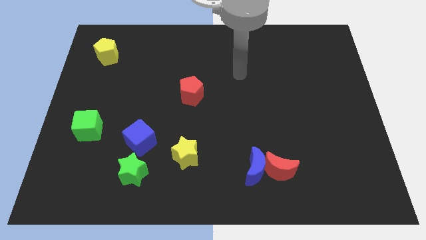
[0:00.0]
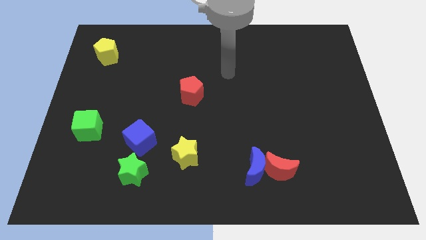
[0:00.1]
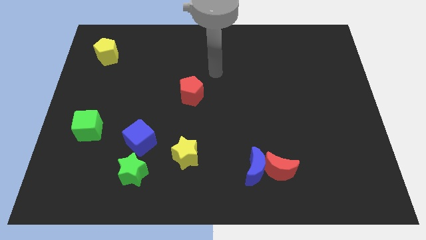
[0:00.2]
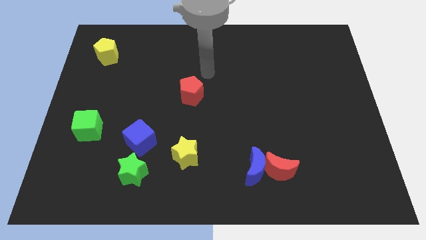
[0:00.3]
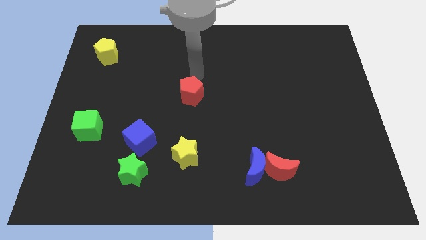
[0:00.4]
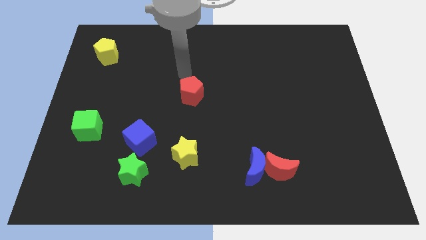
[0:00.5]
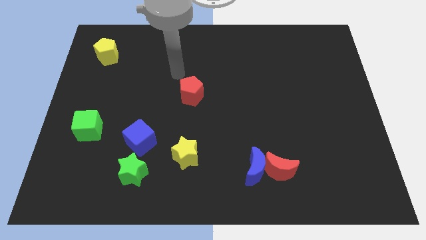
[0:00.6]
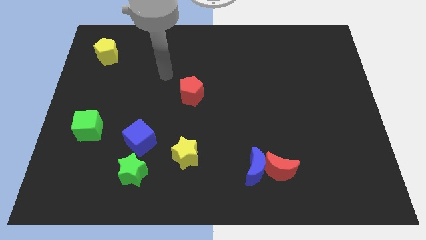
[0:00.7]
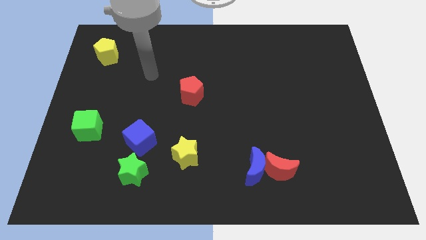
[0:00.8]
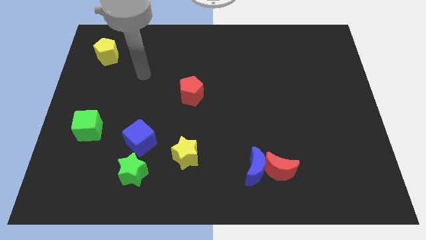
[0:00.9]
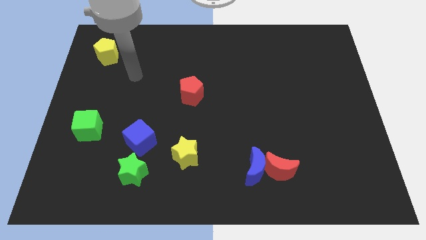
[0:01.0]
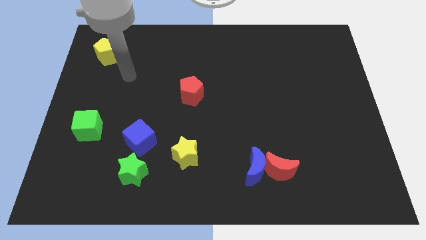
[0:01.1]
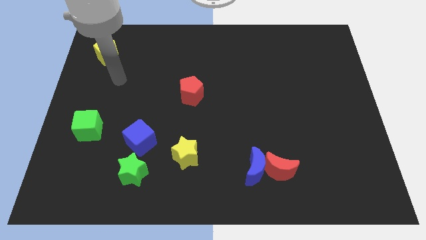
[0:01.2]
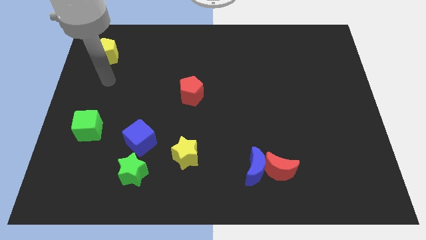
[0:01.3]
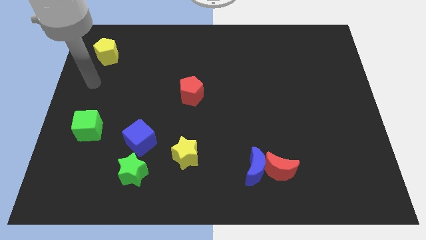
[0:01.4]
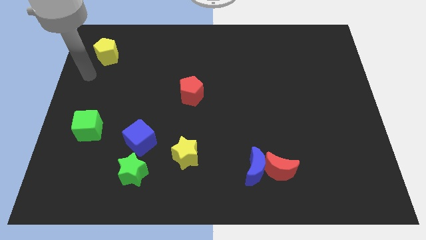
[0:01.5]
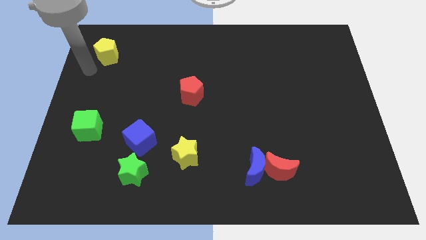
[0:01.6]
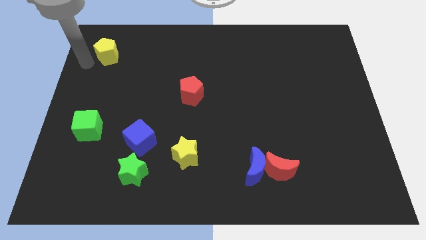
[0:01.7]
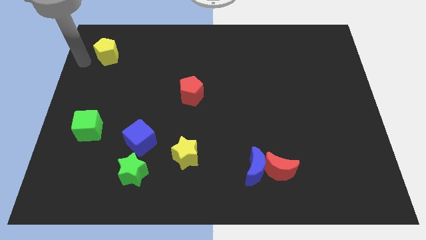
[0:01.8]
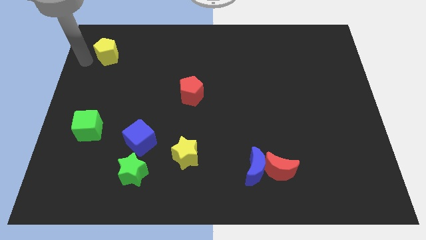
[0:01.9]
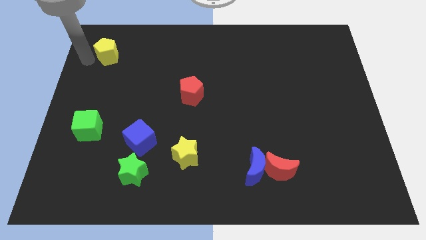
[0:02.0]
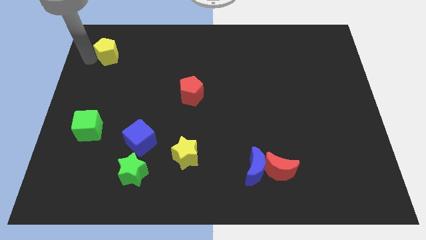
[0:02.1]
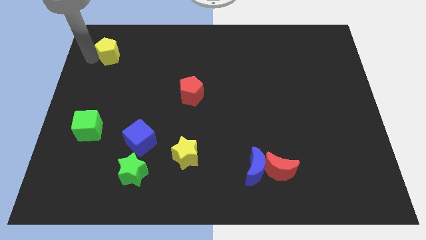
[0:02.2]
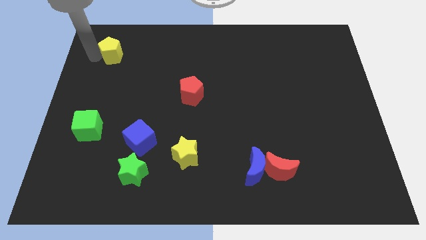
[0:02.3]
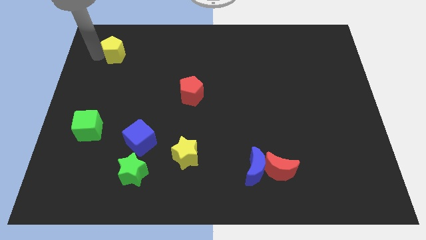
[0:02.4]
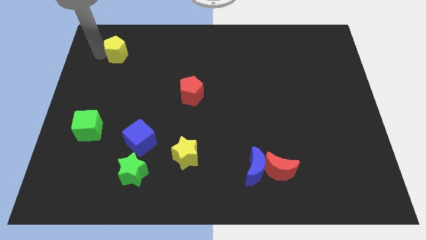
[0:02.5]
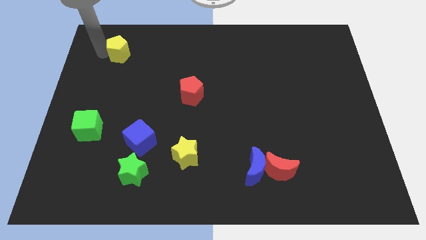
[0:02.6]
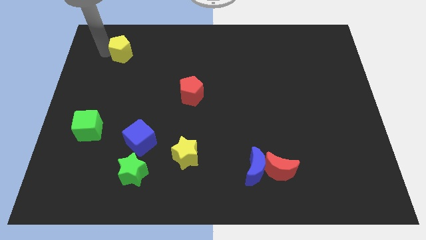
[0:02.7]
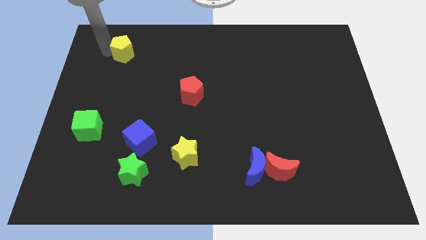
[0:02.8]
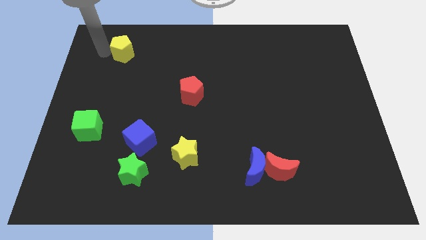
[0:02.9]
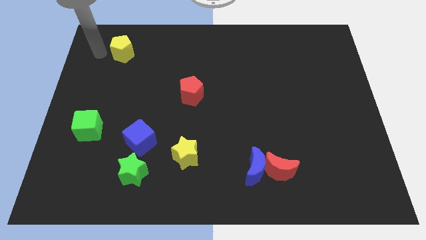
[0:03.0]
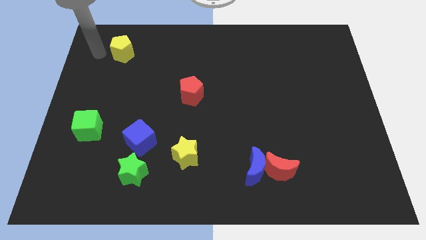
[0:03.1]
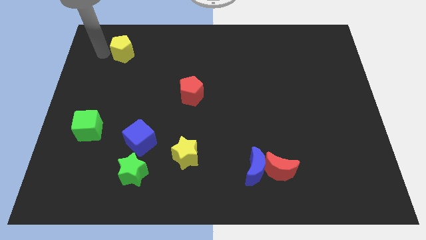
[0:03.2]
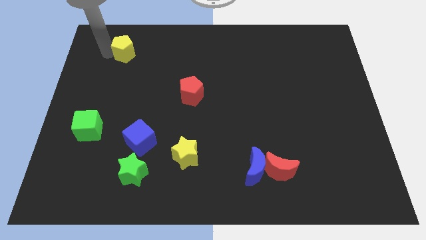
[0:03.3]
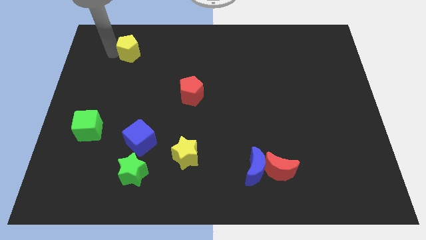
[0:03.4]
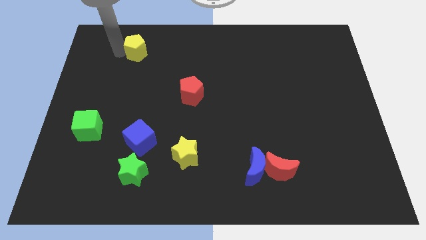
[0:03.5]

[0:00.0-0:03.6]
move the yellow pentagon slightly to the right

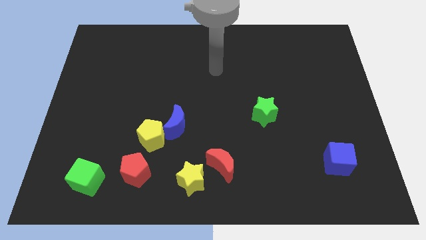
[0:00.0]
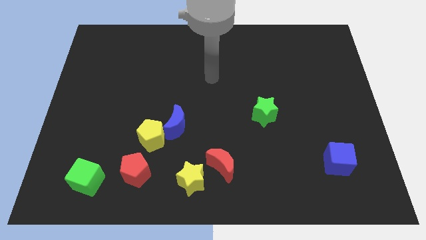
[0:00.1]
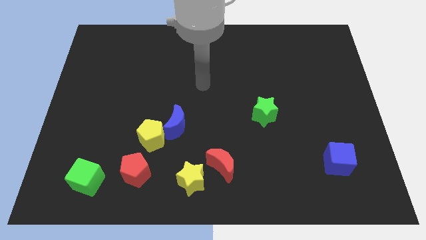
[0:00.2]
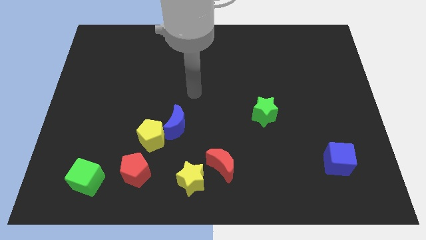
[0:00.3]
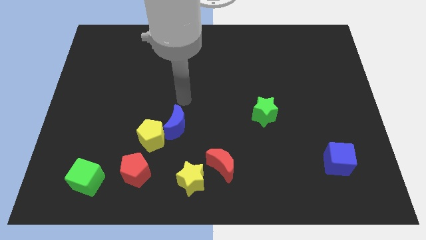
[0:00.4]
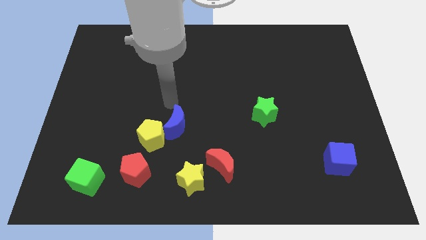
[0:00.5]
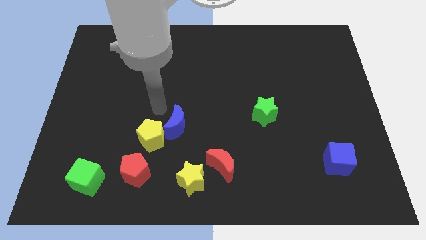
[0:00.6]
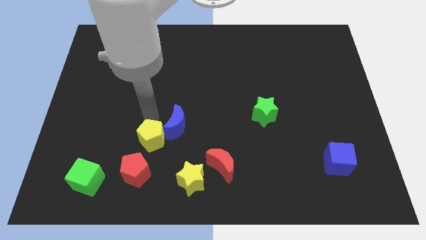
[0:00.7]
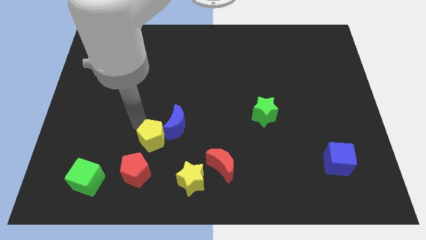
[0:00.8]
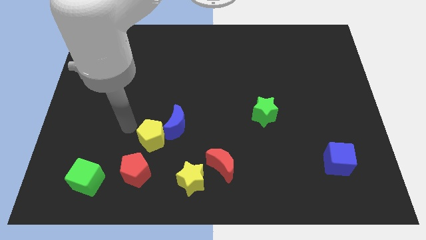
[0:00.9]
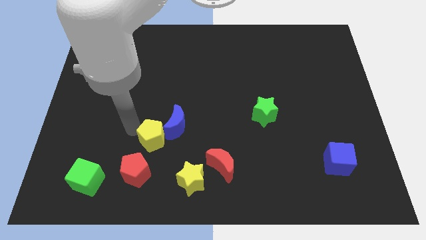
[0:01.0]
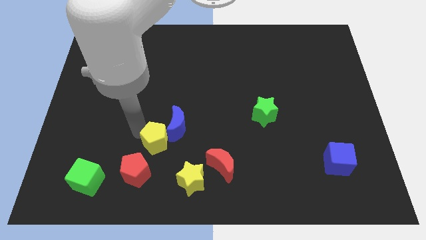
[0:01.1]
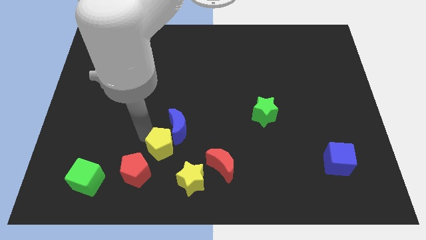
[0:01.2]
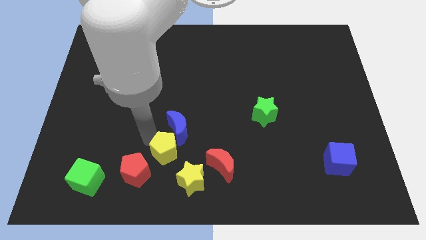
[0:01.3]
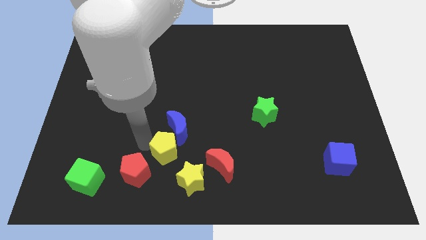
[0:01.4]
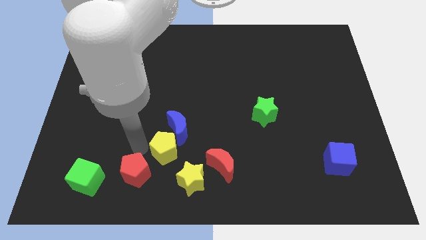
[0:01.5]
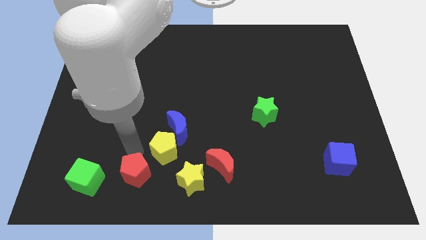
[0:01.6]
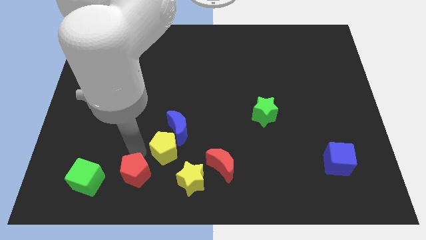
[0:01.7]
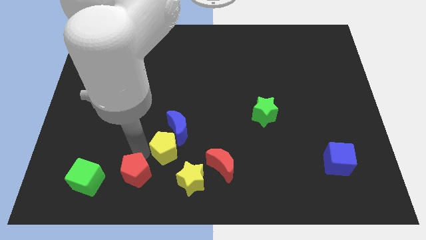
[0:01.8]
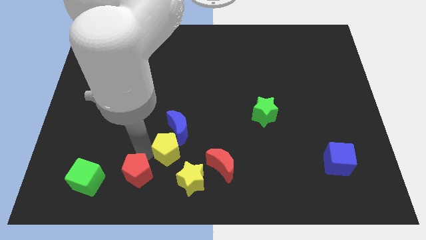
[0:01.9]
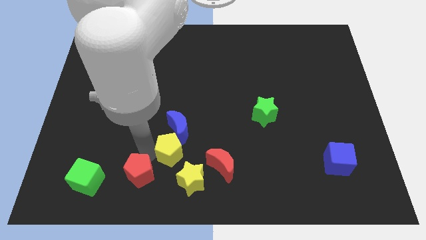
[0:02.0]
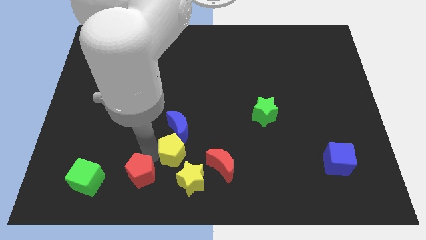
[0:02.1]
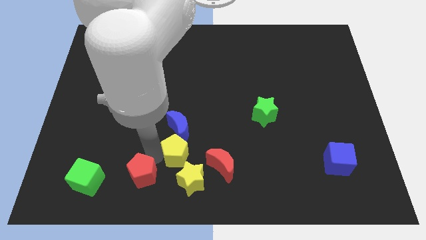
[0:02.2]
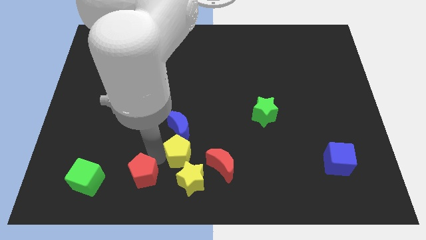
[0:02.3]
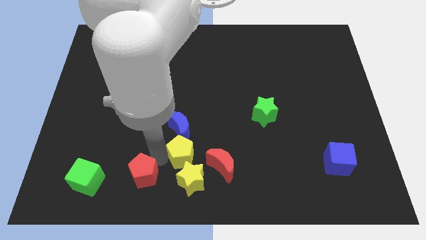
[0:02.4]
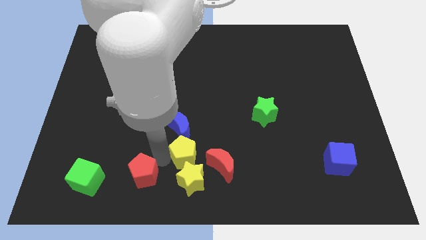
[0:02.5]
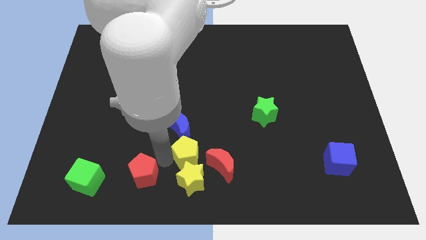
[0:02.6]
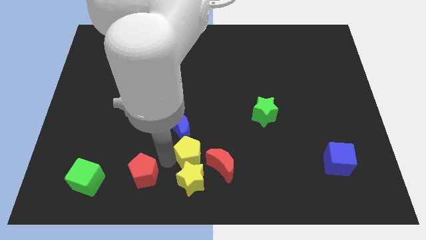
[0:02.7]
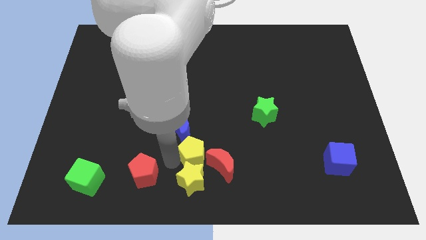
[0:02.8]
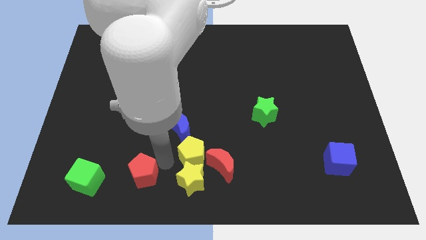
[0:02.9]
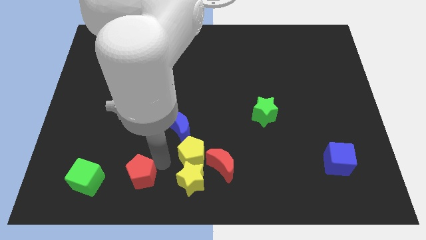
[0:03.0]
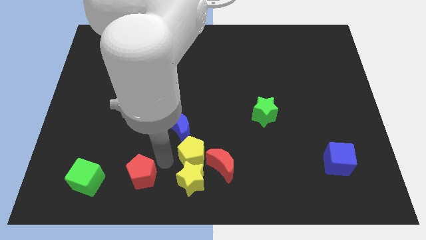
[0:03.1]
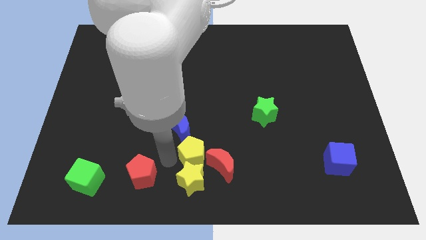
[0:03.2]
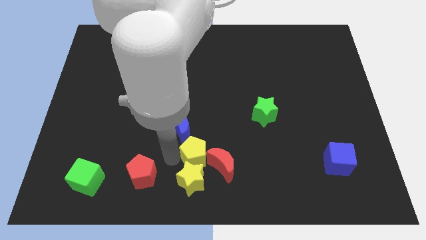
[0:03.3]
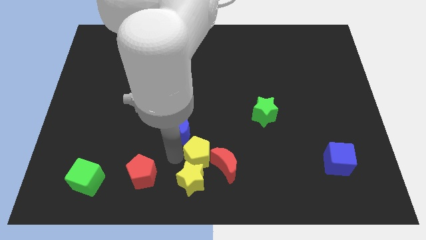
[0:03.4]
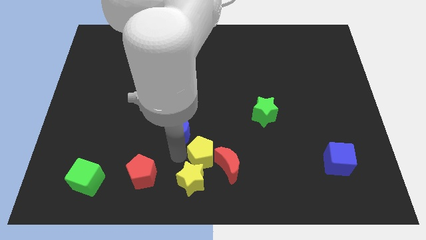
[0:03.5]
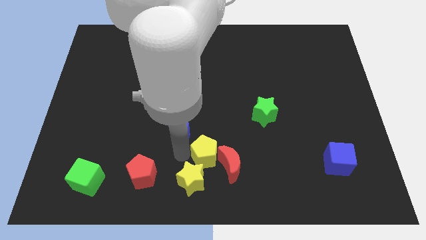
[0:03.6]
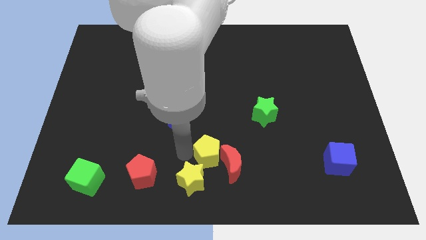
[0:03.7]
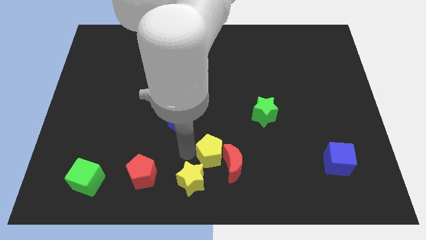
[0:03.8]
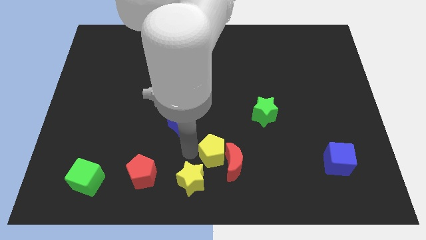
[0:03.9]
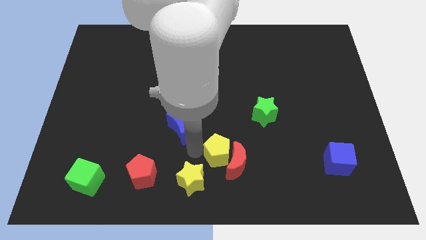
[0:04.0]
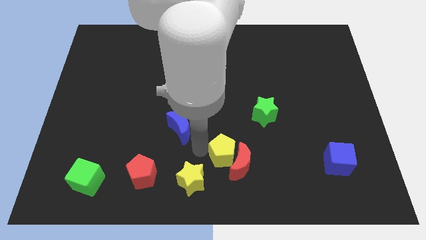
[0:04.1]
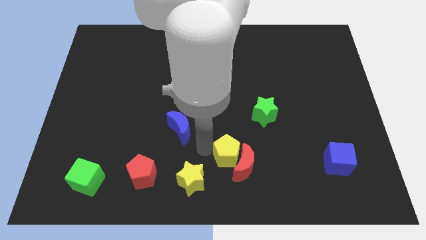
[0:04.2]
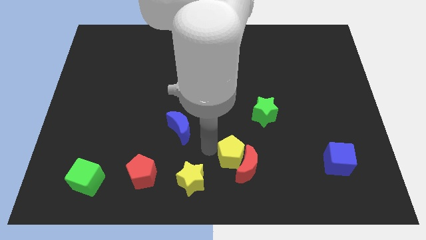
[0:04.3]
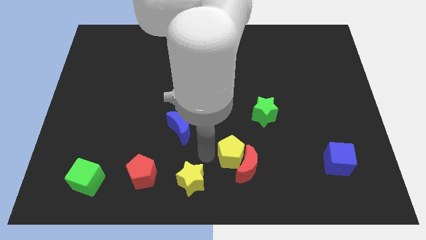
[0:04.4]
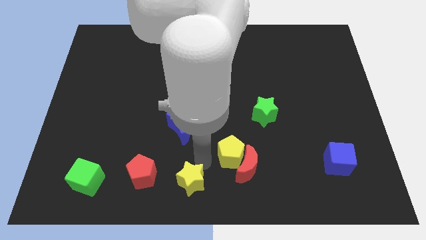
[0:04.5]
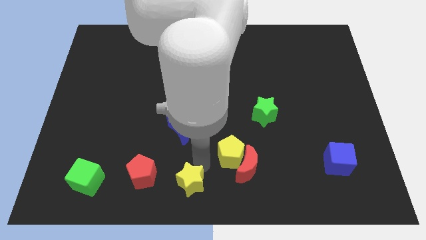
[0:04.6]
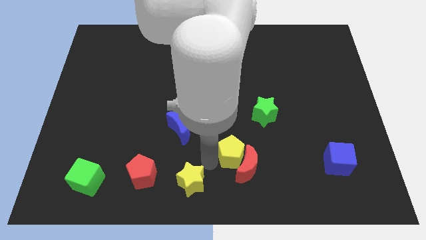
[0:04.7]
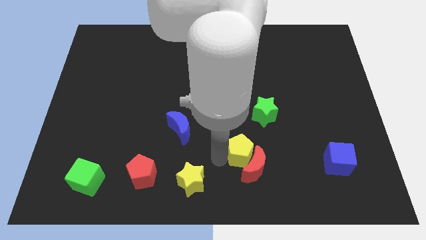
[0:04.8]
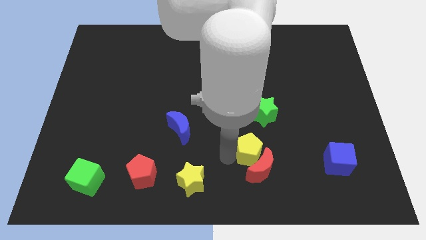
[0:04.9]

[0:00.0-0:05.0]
slide the yellow pentagon right
